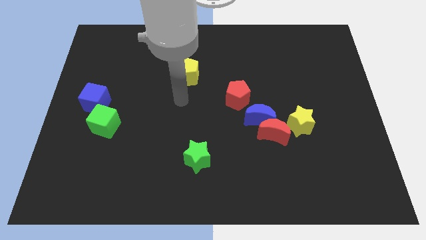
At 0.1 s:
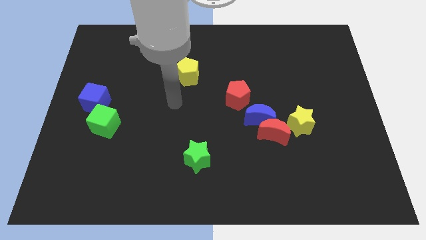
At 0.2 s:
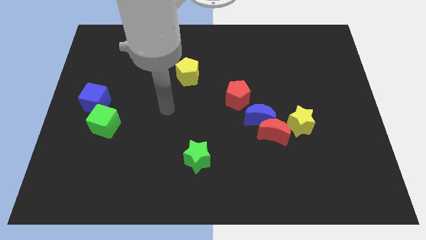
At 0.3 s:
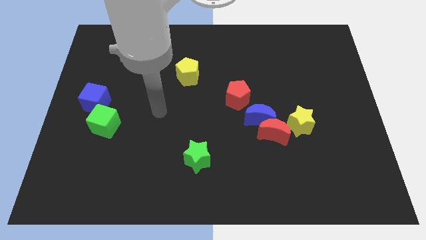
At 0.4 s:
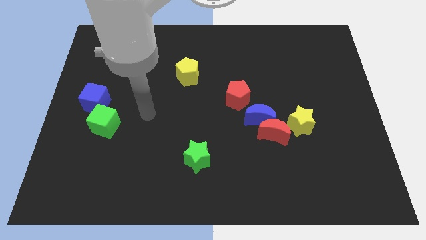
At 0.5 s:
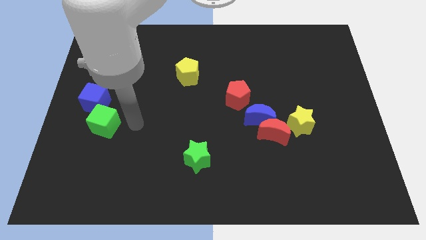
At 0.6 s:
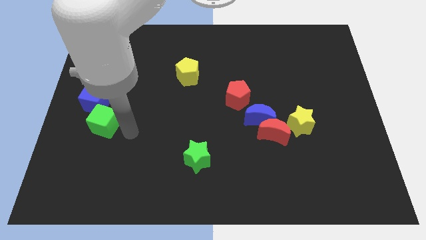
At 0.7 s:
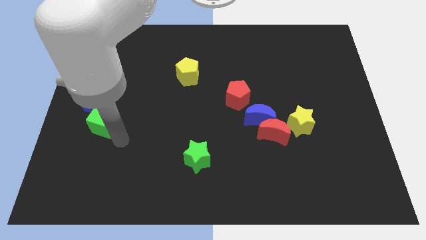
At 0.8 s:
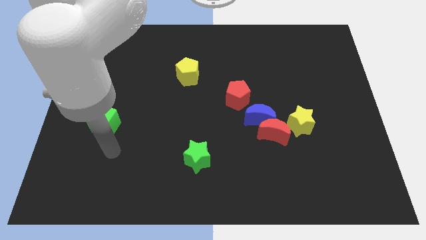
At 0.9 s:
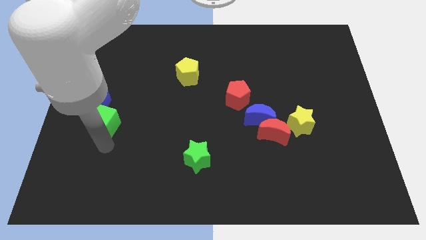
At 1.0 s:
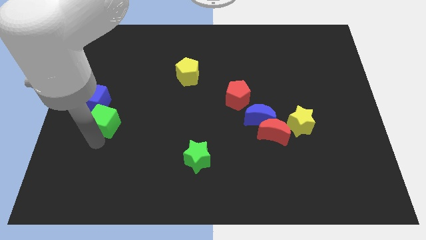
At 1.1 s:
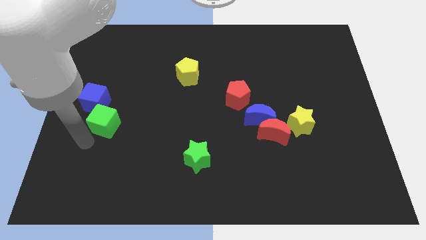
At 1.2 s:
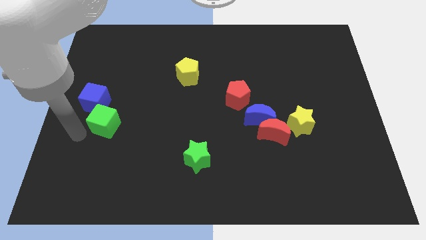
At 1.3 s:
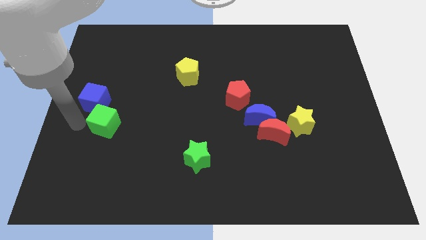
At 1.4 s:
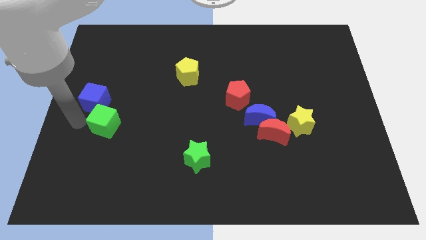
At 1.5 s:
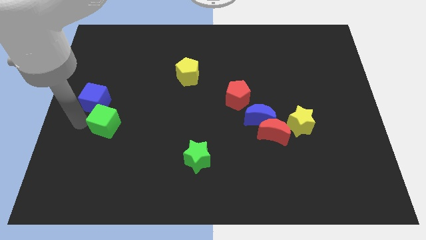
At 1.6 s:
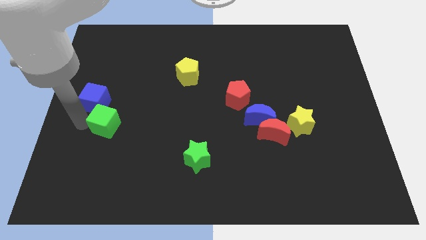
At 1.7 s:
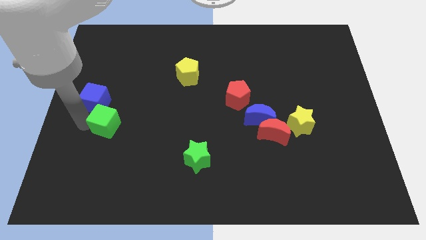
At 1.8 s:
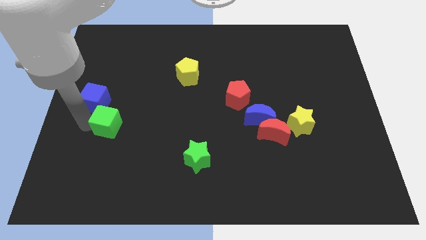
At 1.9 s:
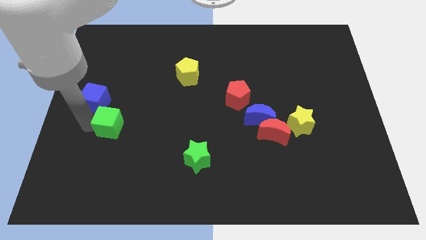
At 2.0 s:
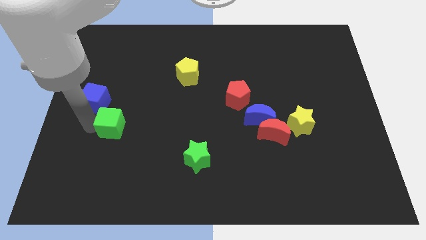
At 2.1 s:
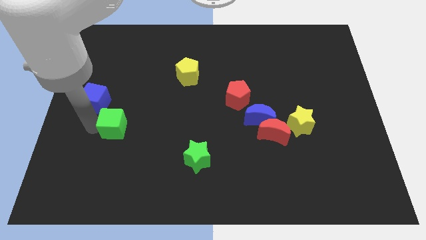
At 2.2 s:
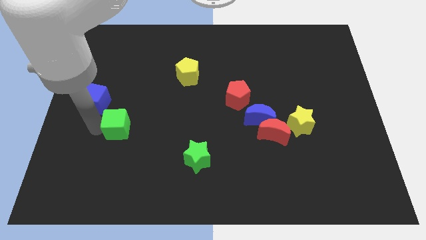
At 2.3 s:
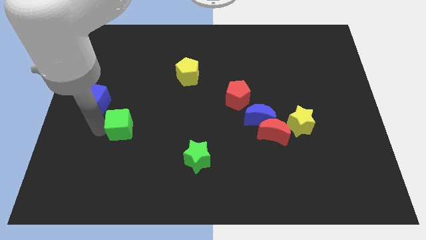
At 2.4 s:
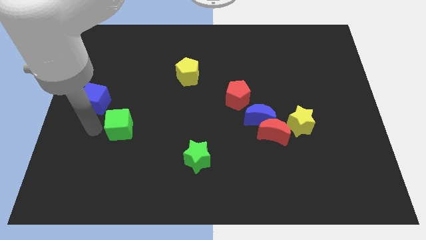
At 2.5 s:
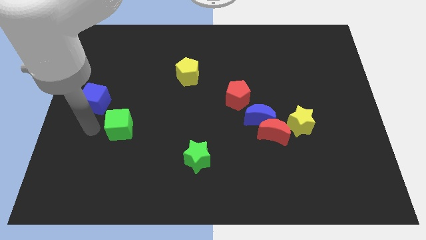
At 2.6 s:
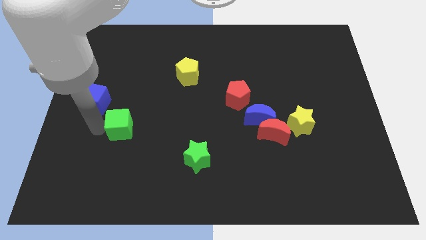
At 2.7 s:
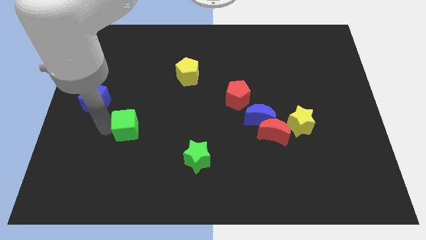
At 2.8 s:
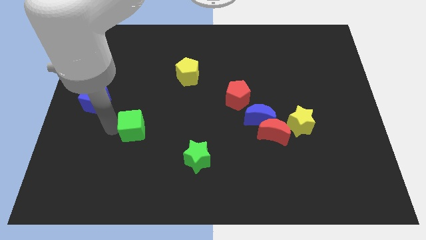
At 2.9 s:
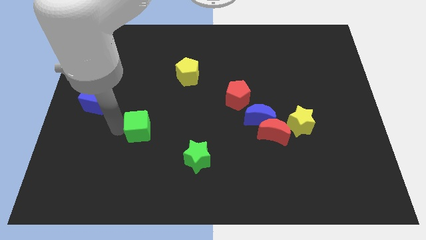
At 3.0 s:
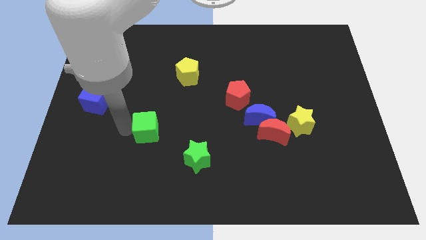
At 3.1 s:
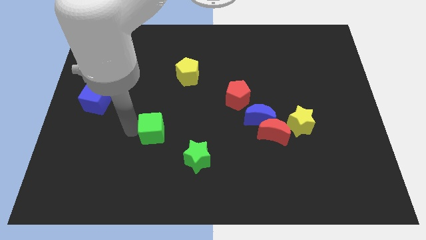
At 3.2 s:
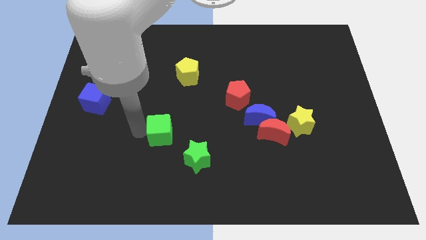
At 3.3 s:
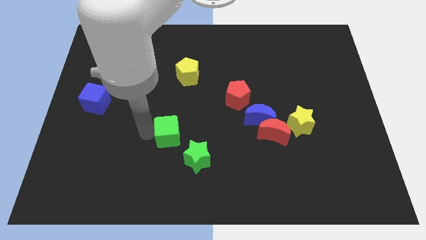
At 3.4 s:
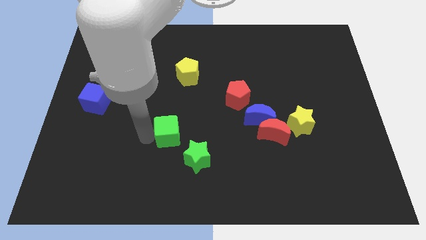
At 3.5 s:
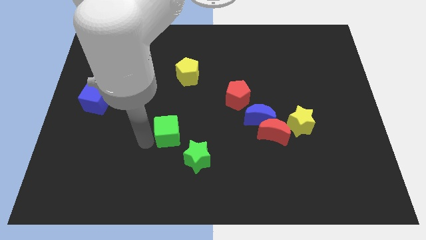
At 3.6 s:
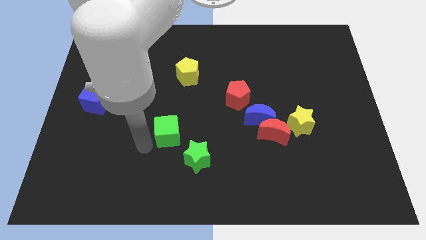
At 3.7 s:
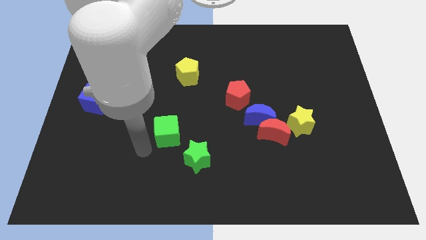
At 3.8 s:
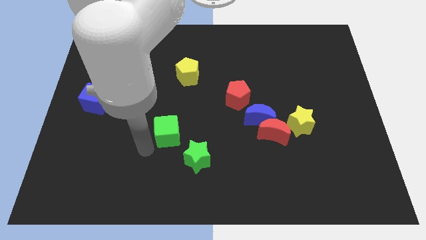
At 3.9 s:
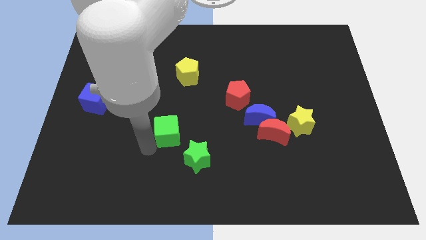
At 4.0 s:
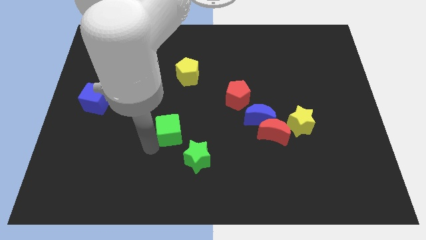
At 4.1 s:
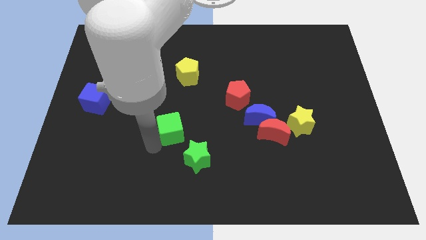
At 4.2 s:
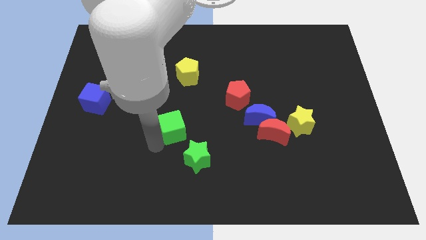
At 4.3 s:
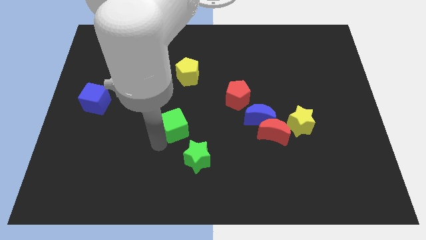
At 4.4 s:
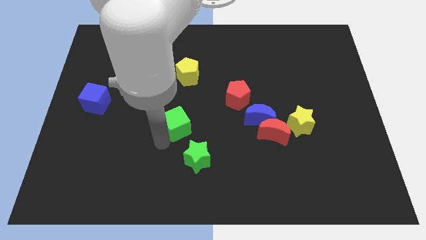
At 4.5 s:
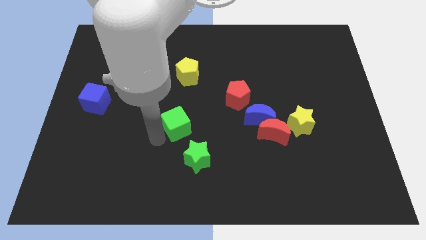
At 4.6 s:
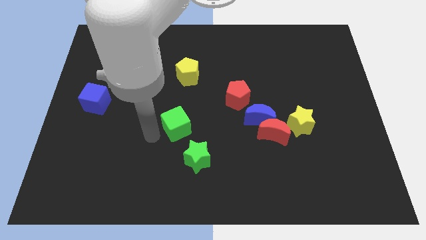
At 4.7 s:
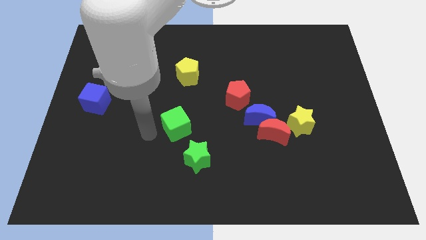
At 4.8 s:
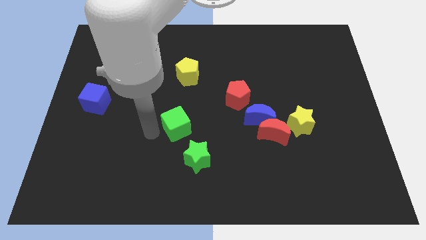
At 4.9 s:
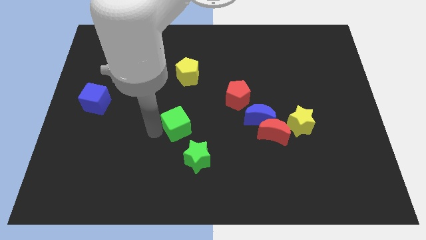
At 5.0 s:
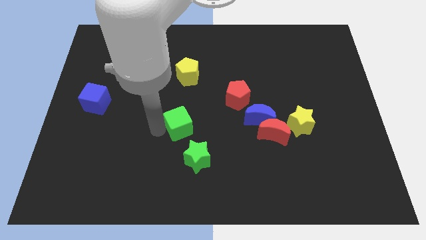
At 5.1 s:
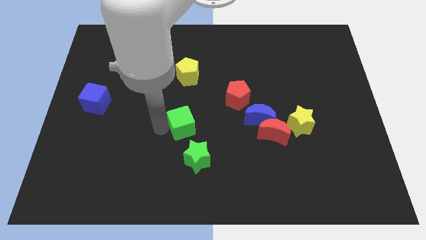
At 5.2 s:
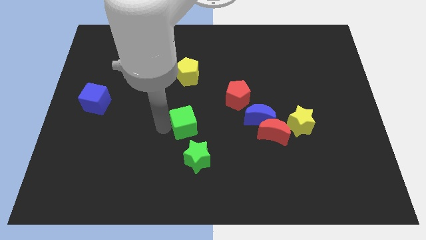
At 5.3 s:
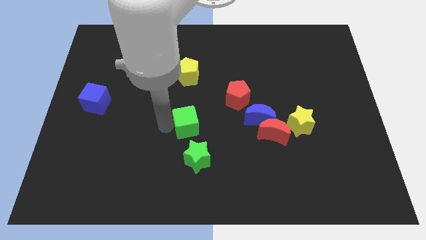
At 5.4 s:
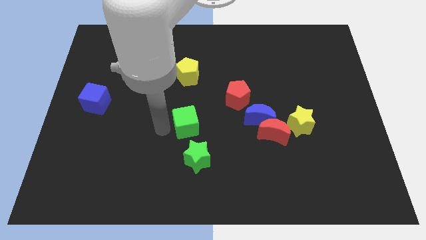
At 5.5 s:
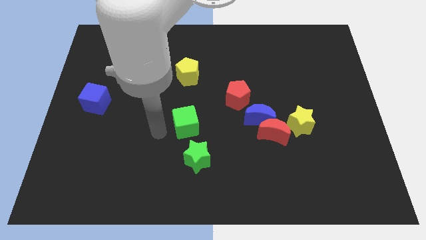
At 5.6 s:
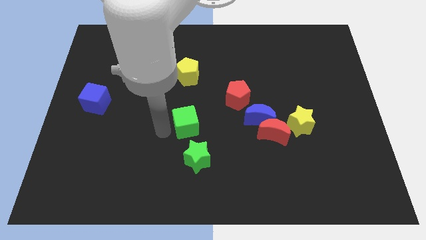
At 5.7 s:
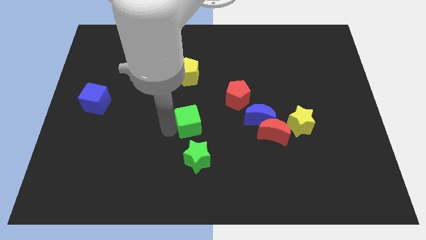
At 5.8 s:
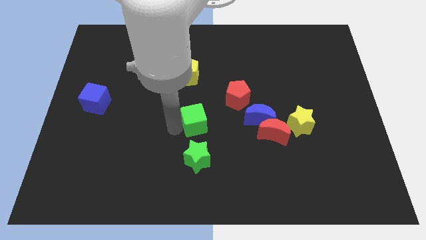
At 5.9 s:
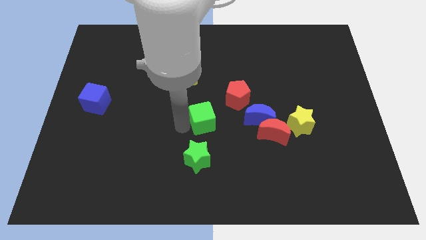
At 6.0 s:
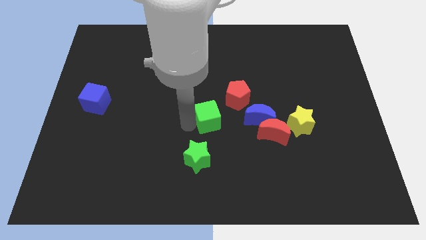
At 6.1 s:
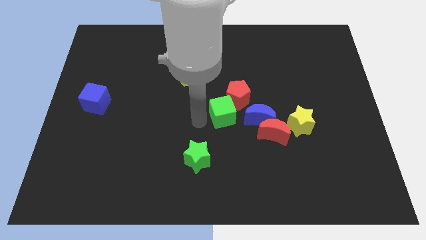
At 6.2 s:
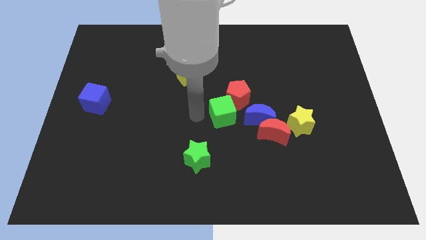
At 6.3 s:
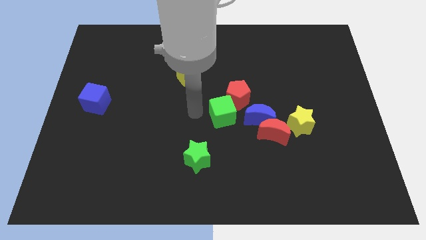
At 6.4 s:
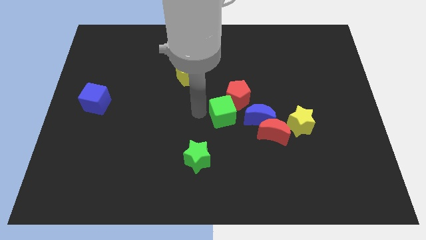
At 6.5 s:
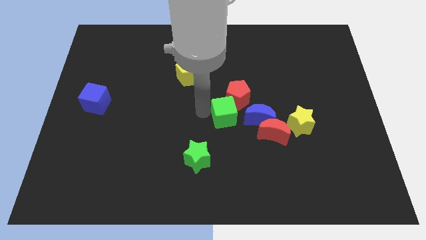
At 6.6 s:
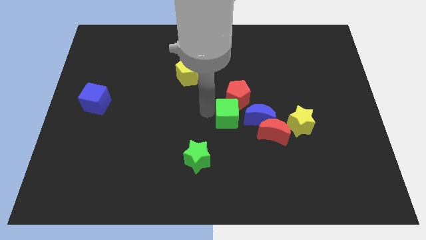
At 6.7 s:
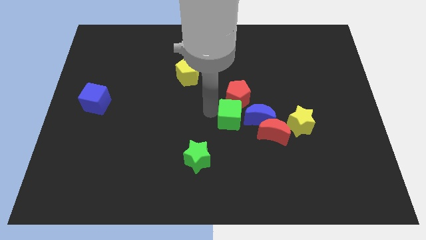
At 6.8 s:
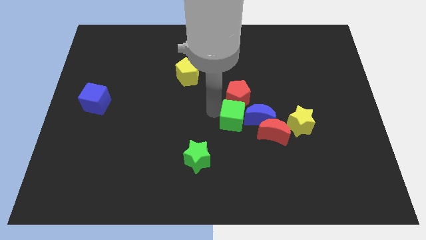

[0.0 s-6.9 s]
slide the green cube towards the blue moon
